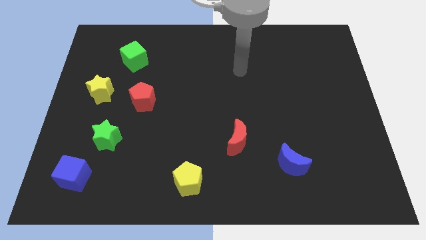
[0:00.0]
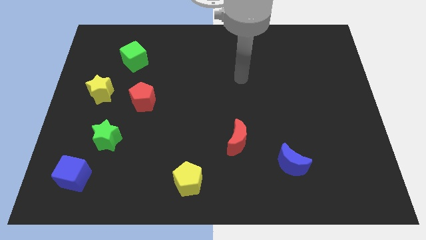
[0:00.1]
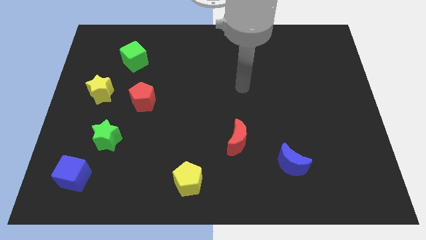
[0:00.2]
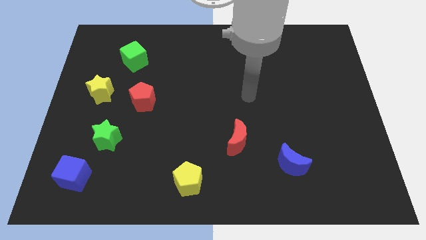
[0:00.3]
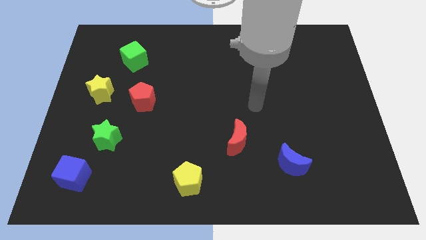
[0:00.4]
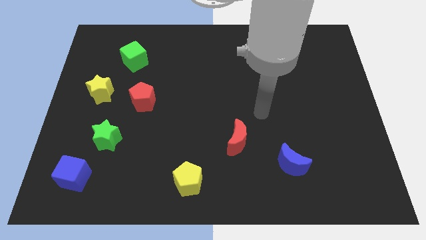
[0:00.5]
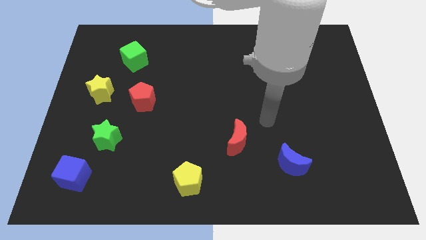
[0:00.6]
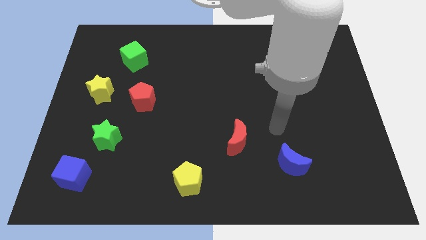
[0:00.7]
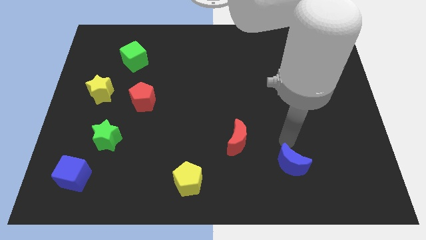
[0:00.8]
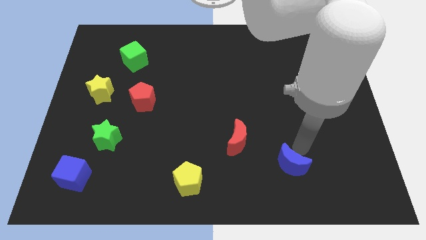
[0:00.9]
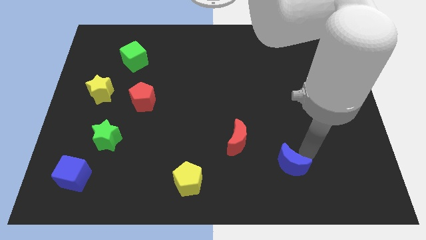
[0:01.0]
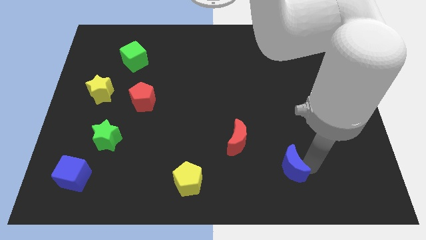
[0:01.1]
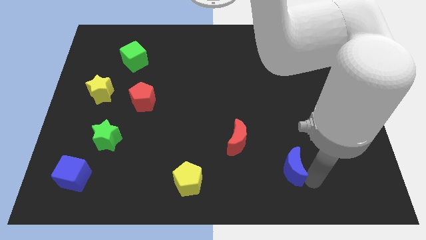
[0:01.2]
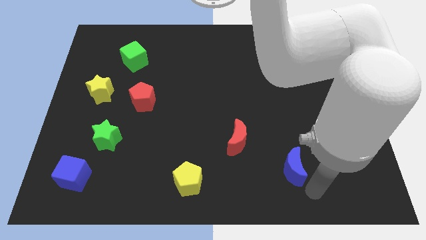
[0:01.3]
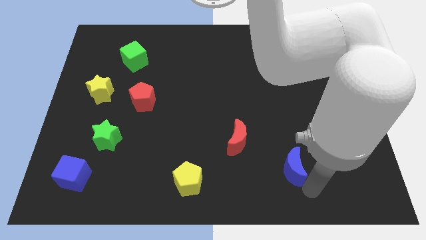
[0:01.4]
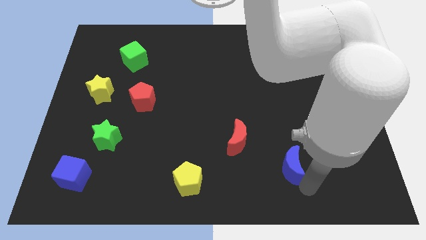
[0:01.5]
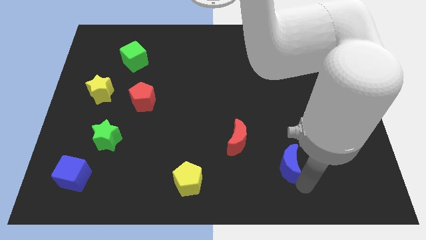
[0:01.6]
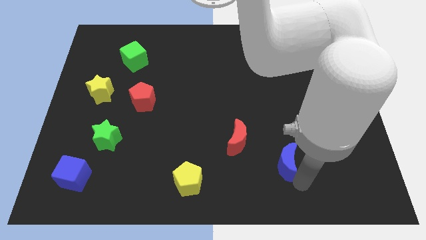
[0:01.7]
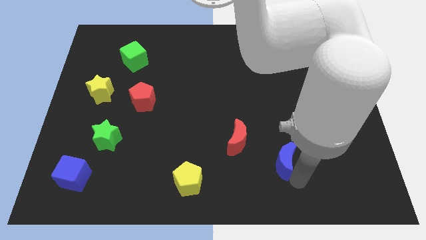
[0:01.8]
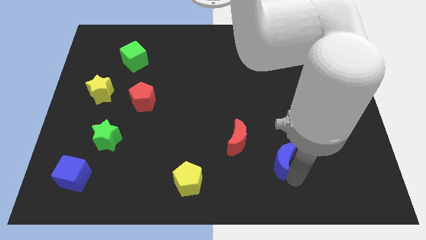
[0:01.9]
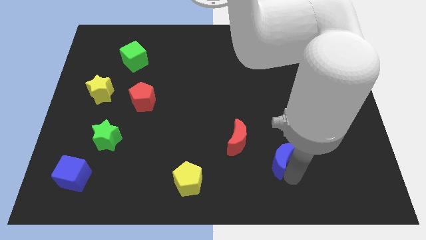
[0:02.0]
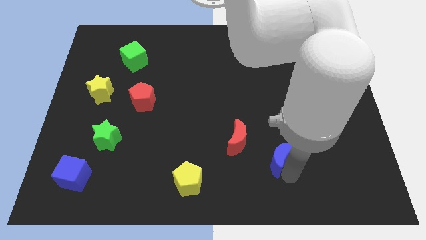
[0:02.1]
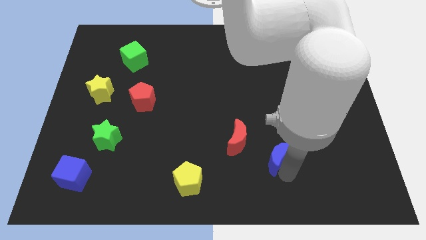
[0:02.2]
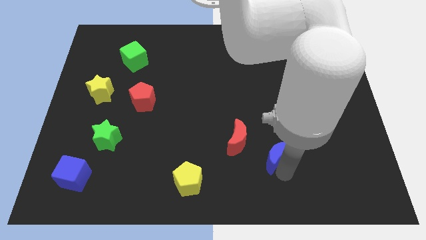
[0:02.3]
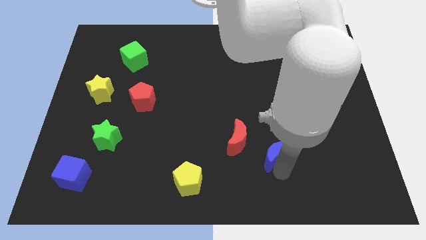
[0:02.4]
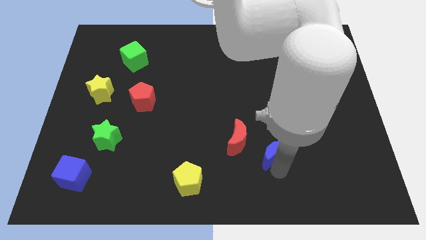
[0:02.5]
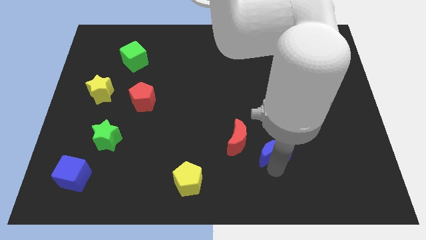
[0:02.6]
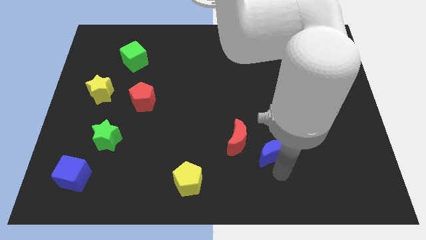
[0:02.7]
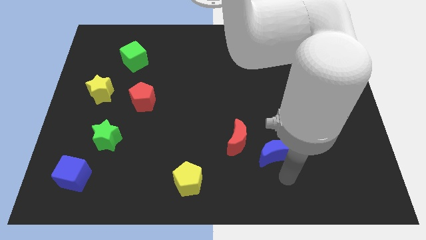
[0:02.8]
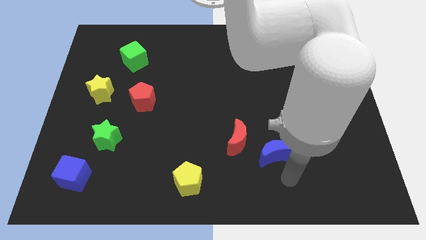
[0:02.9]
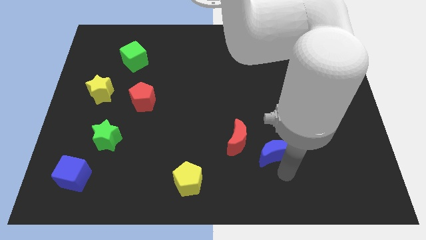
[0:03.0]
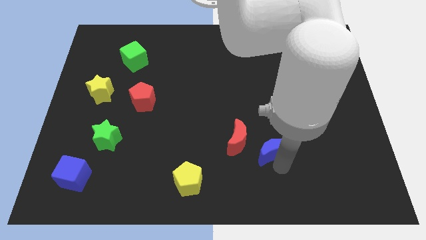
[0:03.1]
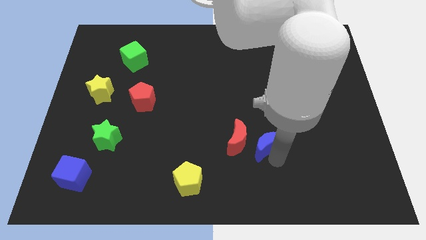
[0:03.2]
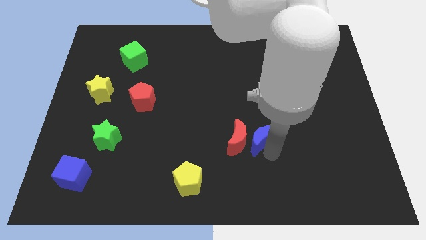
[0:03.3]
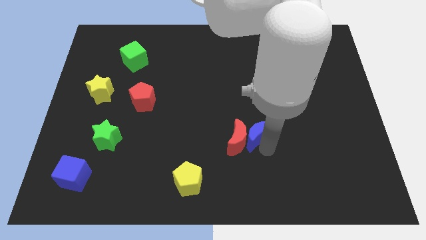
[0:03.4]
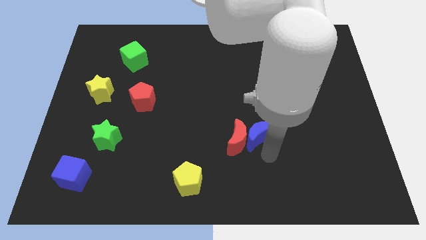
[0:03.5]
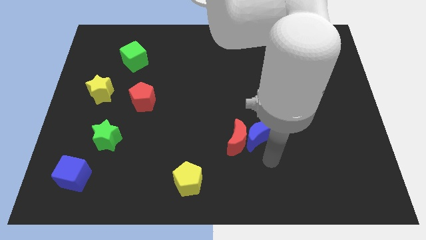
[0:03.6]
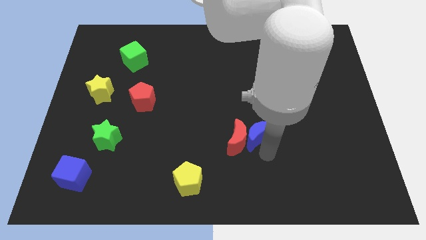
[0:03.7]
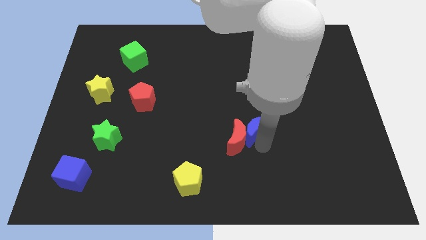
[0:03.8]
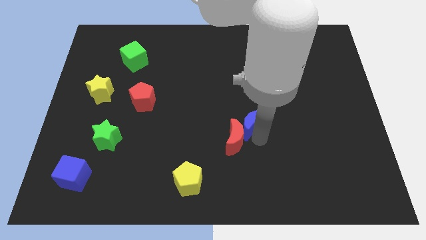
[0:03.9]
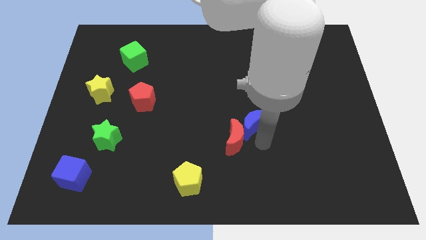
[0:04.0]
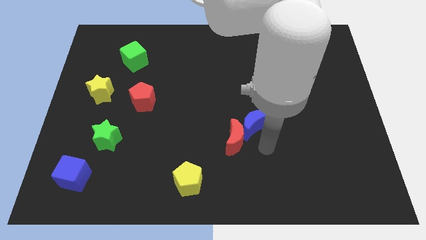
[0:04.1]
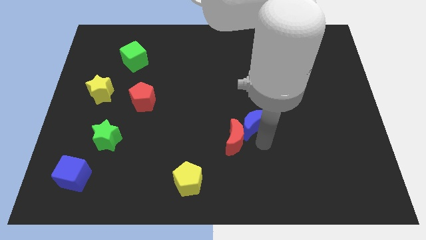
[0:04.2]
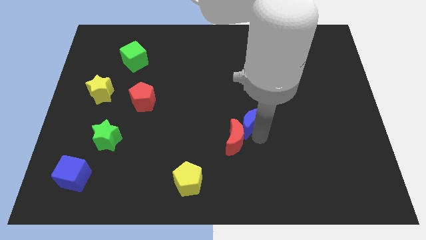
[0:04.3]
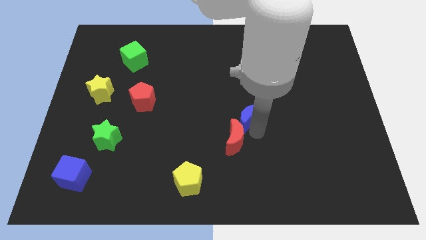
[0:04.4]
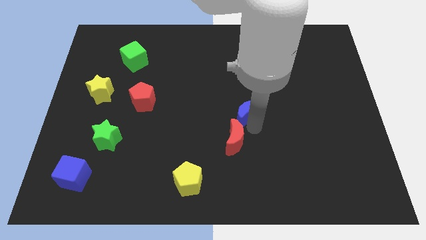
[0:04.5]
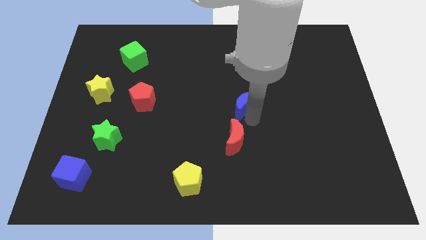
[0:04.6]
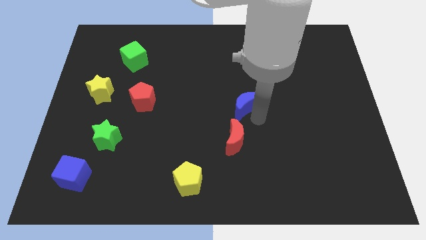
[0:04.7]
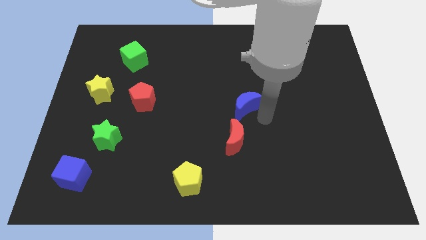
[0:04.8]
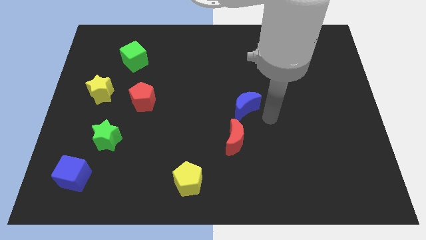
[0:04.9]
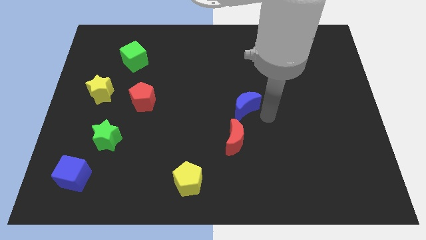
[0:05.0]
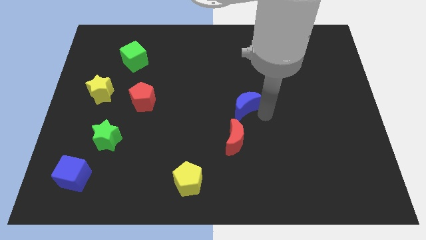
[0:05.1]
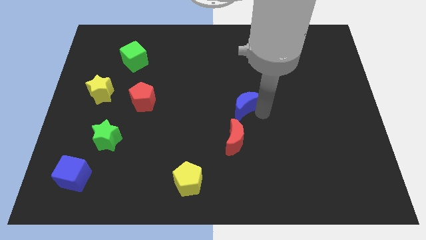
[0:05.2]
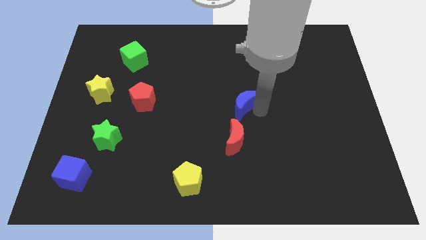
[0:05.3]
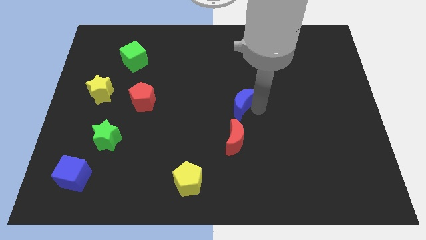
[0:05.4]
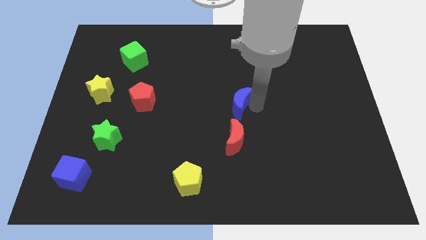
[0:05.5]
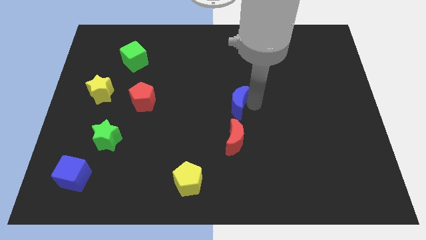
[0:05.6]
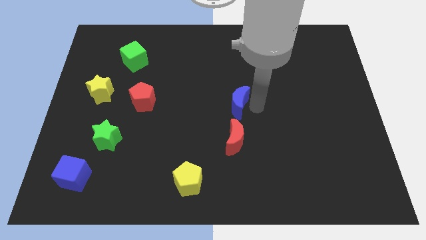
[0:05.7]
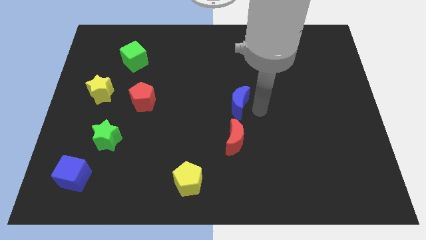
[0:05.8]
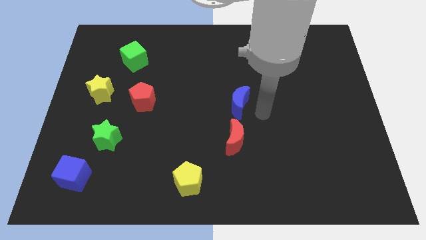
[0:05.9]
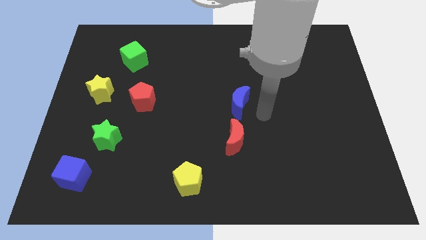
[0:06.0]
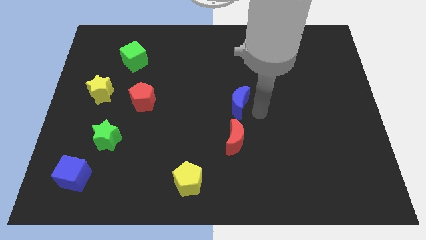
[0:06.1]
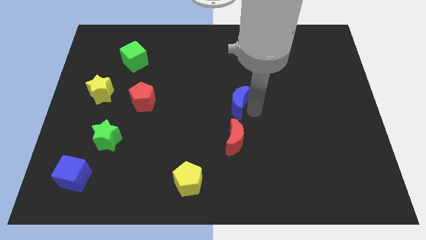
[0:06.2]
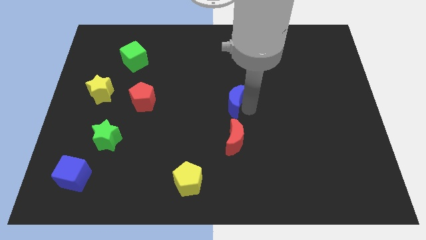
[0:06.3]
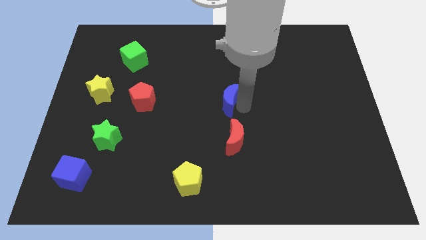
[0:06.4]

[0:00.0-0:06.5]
move the blue moon upwards and to the left diagonally

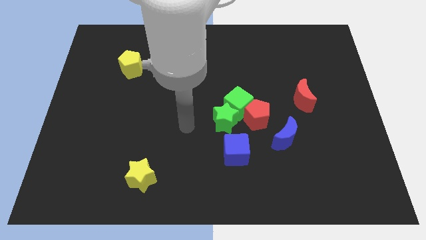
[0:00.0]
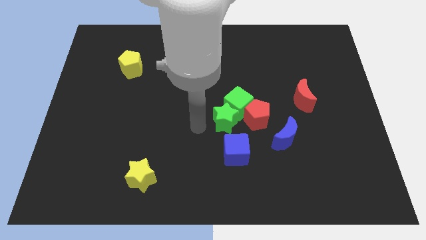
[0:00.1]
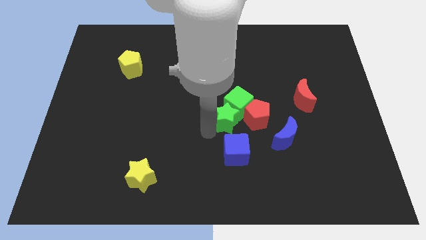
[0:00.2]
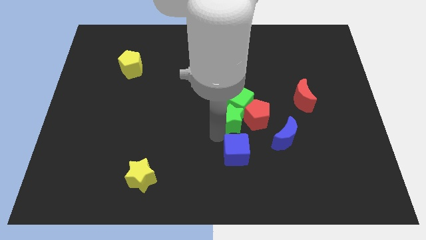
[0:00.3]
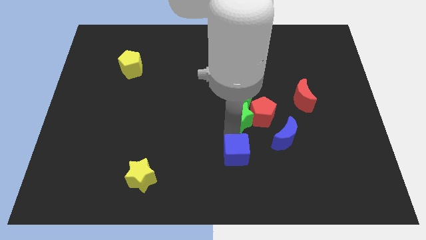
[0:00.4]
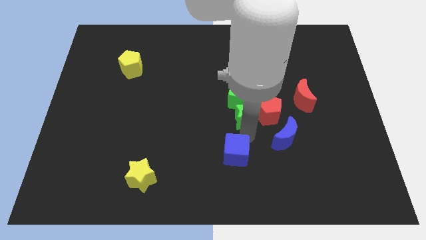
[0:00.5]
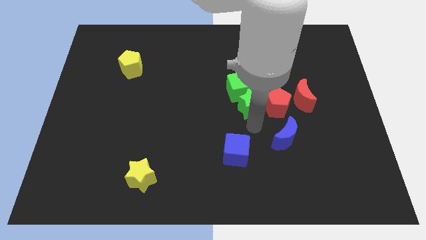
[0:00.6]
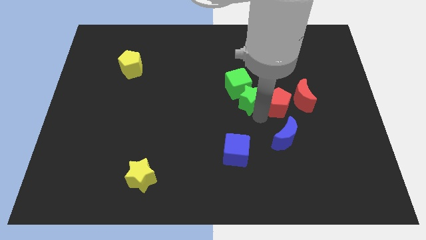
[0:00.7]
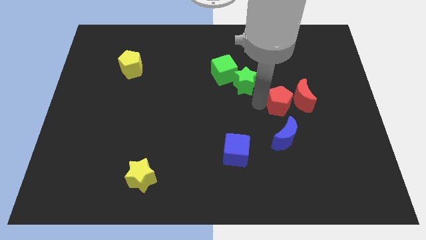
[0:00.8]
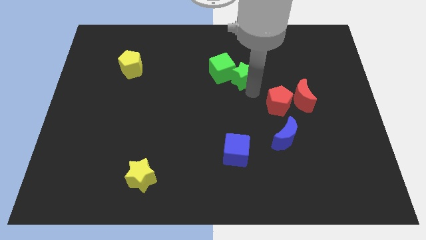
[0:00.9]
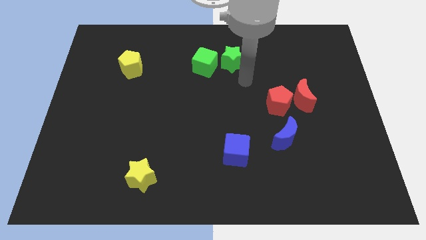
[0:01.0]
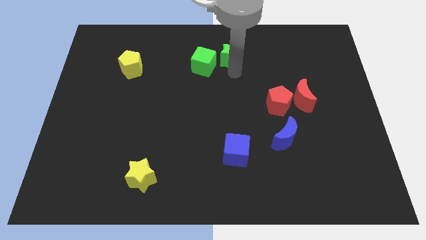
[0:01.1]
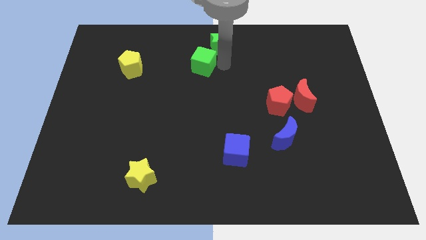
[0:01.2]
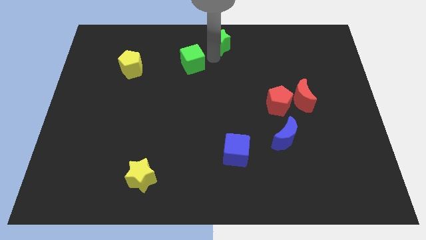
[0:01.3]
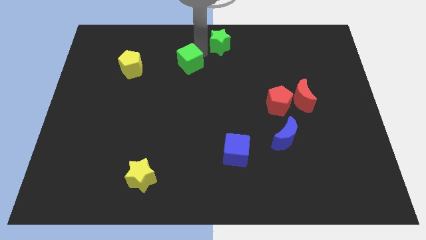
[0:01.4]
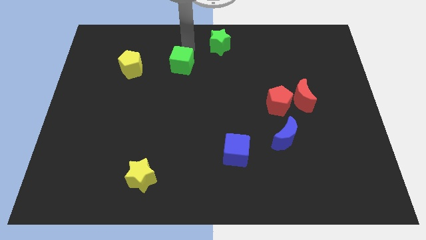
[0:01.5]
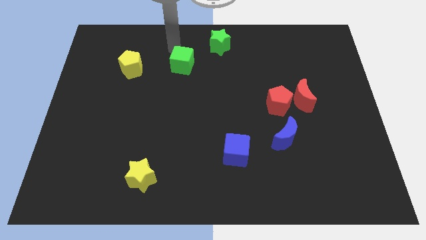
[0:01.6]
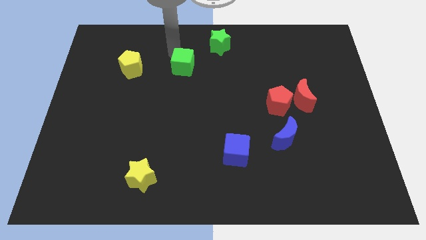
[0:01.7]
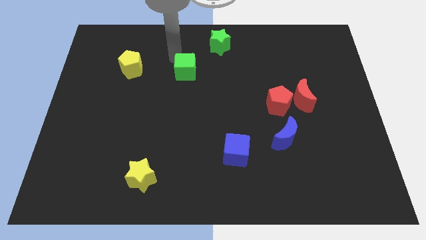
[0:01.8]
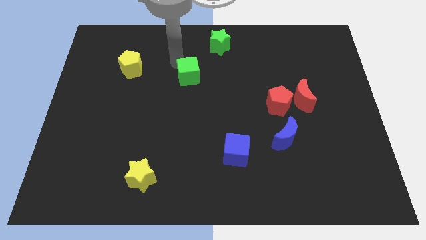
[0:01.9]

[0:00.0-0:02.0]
slide the green cube to the left slightly
